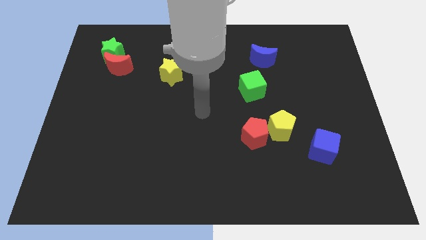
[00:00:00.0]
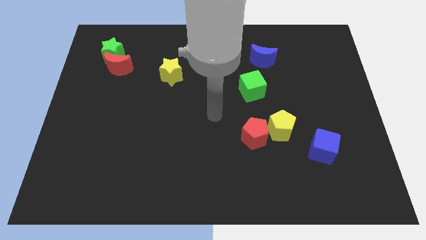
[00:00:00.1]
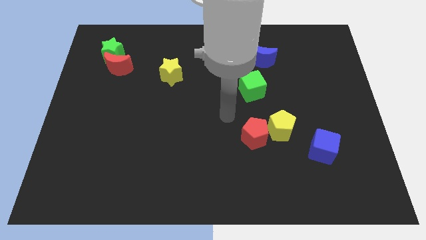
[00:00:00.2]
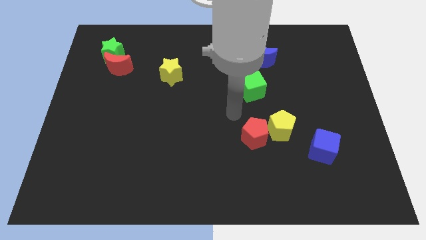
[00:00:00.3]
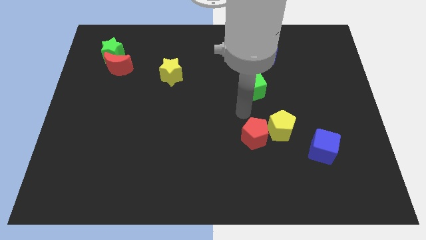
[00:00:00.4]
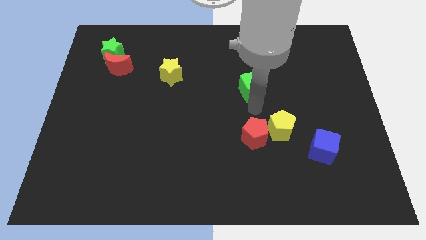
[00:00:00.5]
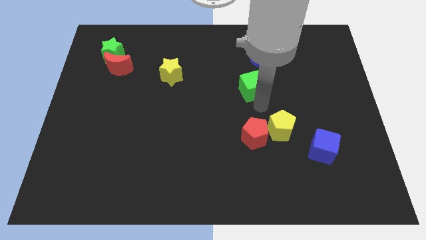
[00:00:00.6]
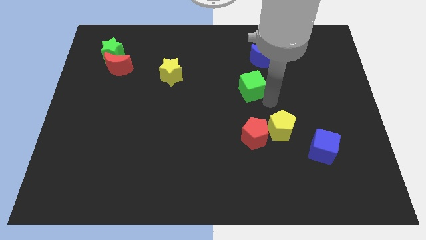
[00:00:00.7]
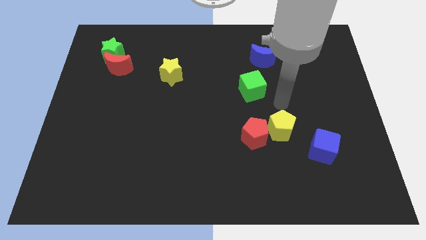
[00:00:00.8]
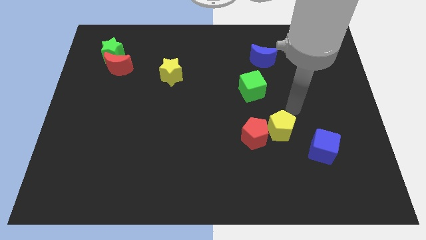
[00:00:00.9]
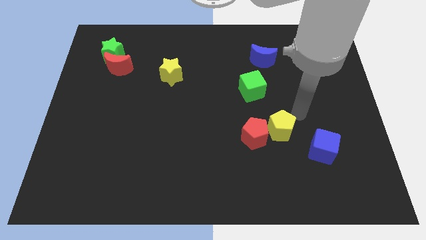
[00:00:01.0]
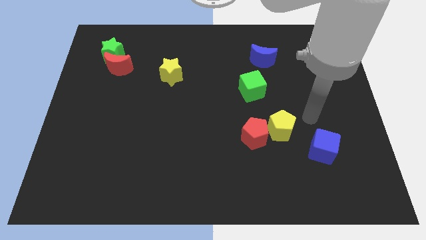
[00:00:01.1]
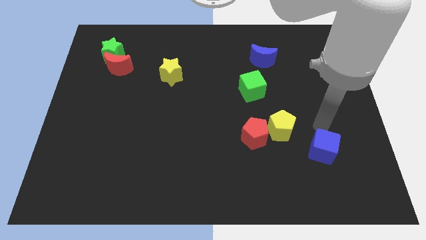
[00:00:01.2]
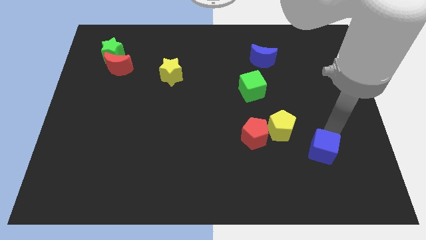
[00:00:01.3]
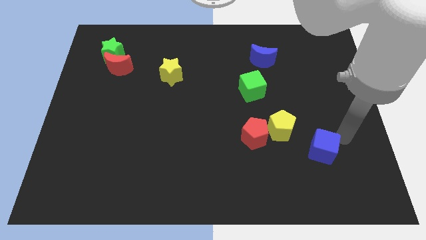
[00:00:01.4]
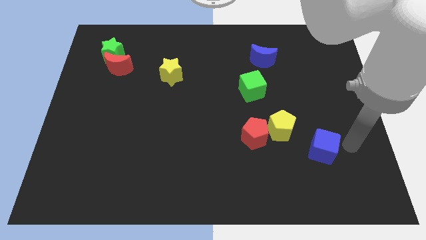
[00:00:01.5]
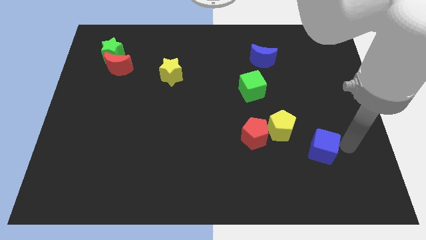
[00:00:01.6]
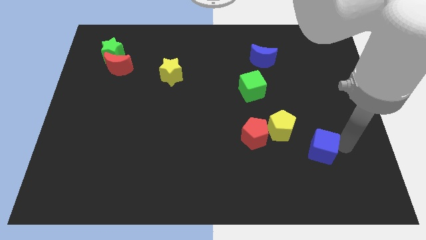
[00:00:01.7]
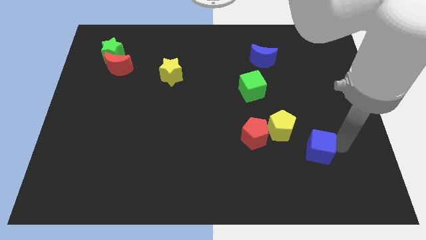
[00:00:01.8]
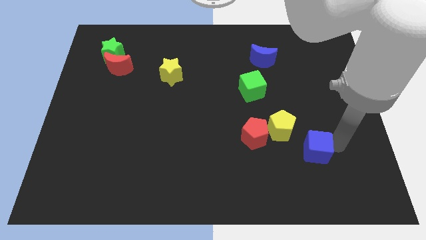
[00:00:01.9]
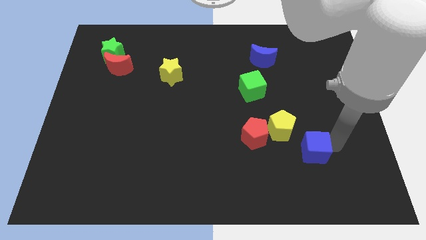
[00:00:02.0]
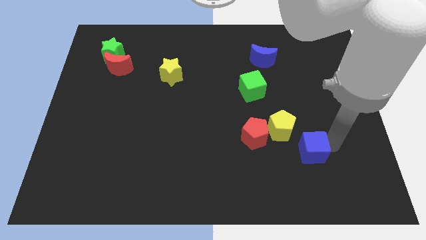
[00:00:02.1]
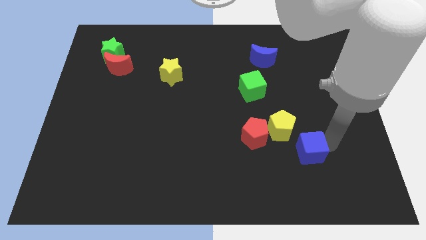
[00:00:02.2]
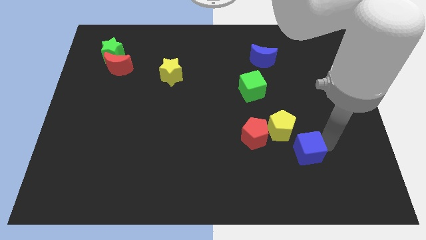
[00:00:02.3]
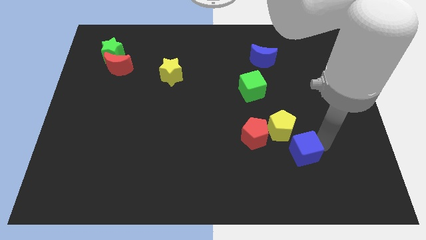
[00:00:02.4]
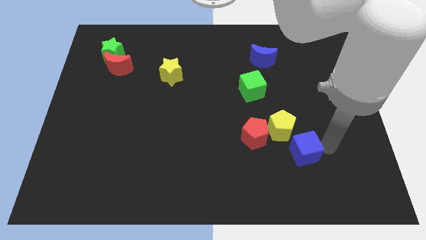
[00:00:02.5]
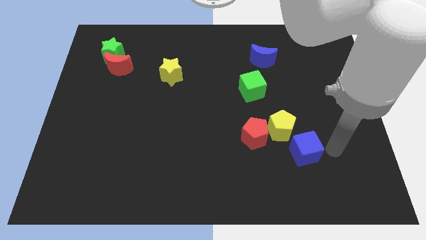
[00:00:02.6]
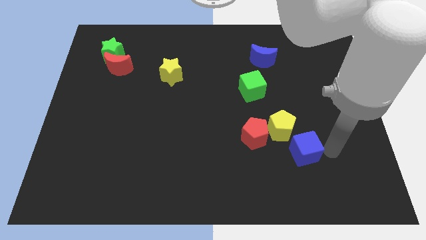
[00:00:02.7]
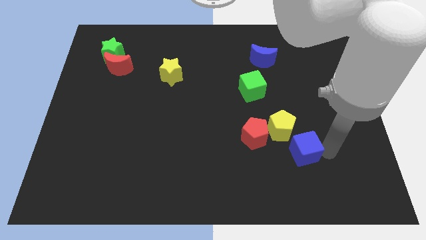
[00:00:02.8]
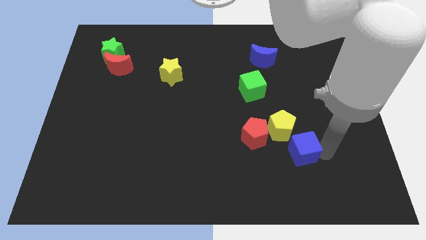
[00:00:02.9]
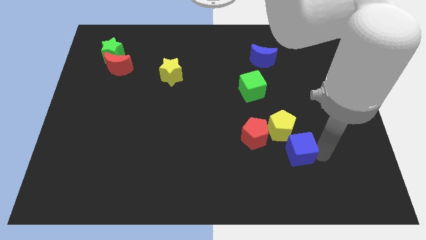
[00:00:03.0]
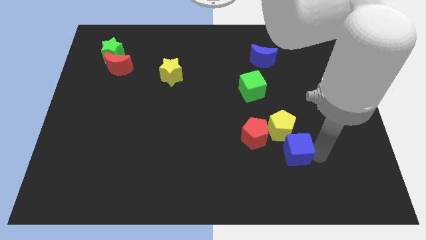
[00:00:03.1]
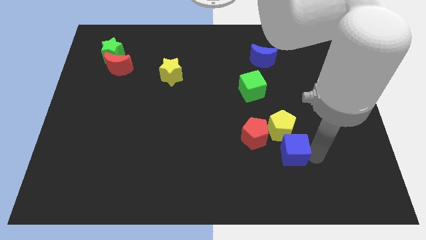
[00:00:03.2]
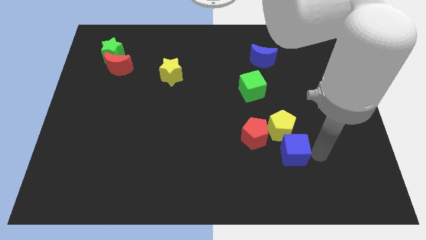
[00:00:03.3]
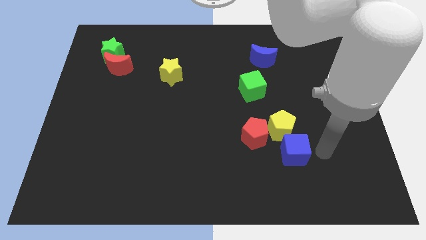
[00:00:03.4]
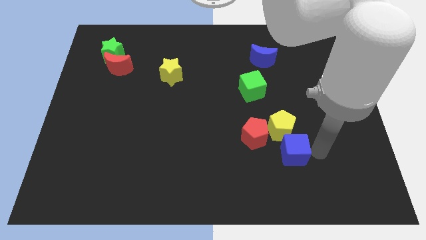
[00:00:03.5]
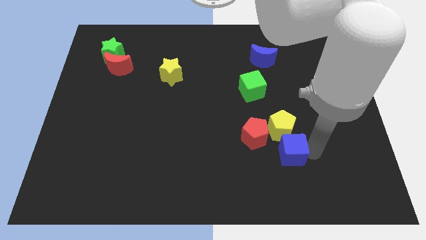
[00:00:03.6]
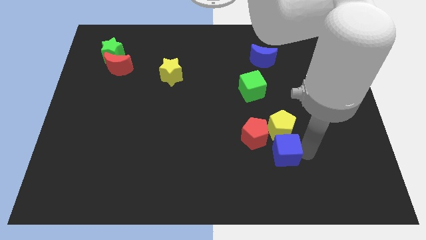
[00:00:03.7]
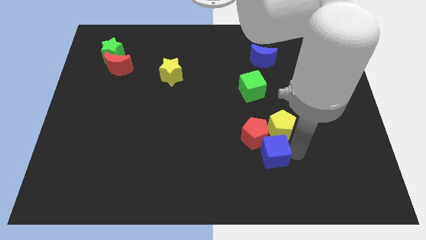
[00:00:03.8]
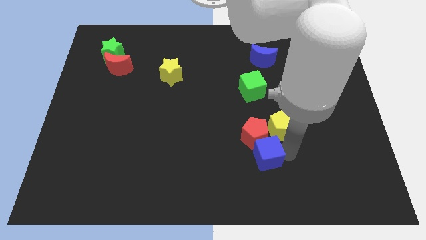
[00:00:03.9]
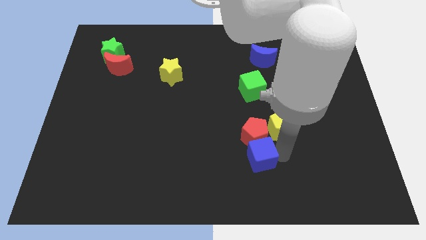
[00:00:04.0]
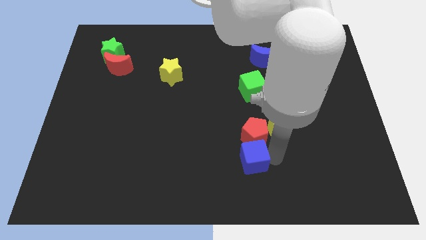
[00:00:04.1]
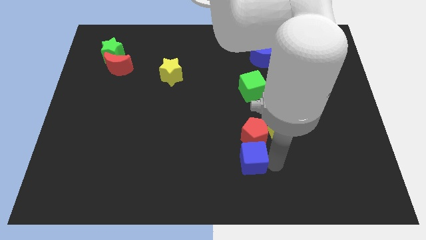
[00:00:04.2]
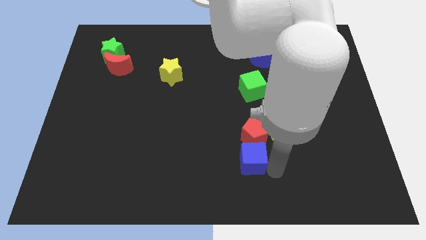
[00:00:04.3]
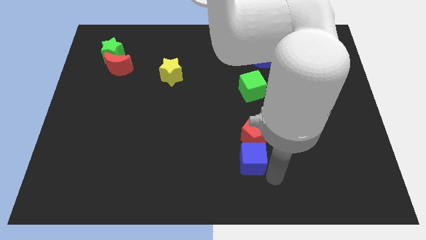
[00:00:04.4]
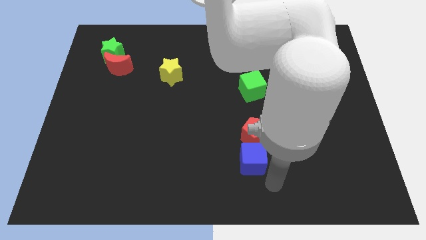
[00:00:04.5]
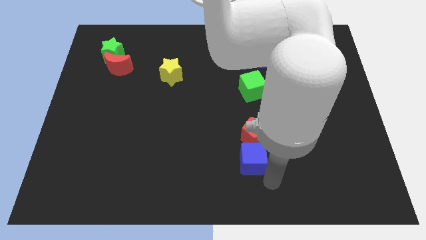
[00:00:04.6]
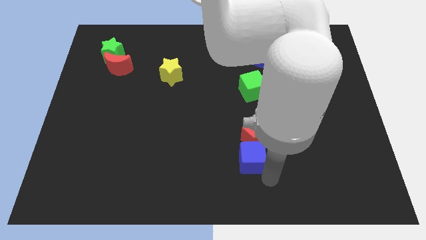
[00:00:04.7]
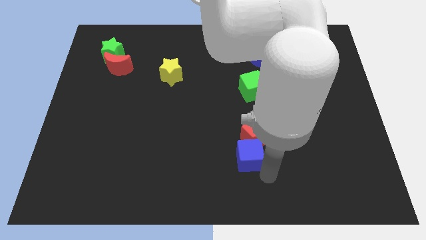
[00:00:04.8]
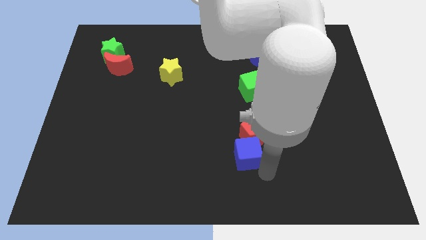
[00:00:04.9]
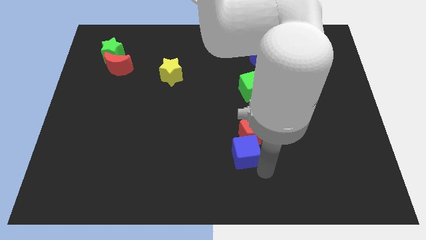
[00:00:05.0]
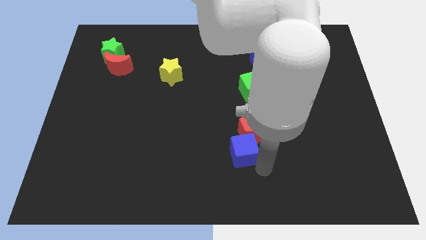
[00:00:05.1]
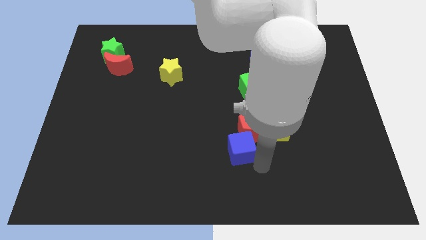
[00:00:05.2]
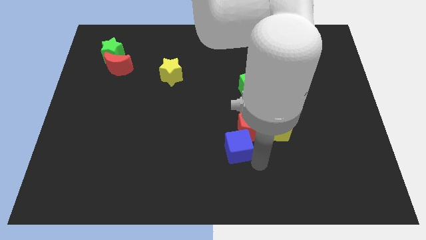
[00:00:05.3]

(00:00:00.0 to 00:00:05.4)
slide the blue cube to the left side of the yellow pentagon

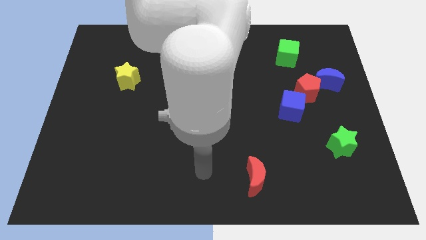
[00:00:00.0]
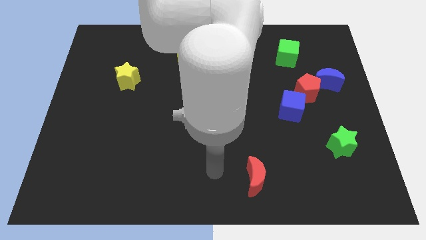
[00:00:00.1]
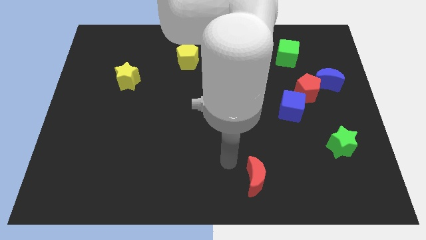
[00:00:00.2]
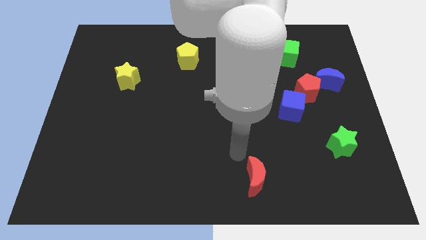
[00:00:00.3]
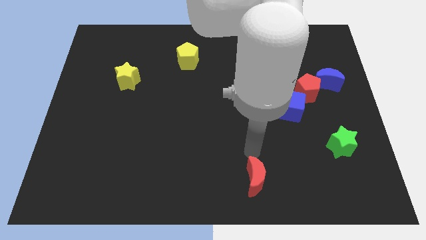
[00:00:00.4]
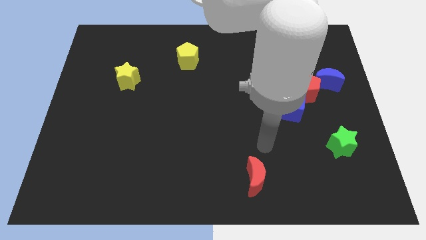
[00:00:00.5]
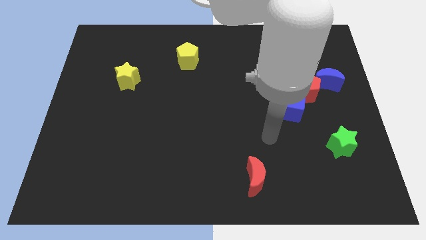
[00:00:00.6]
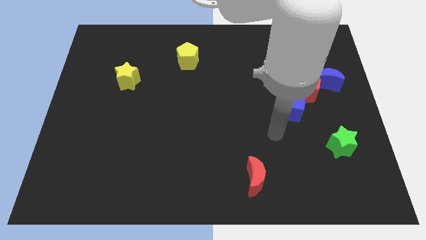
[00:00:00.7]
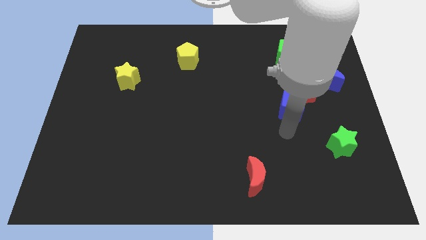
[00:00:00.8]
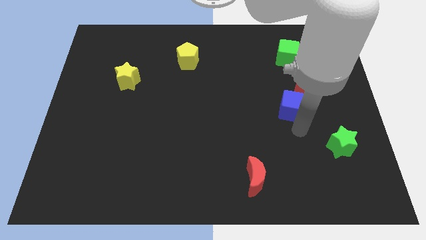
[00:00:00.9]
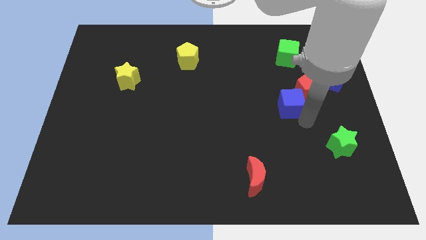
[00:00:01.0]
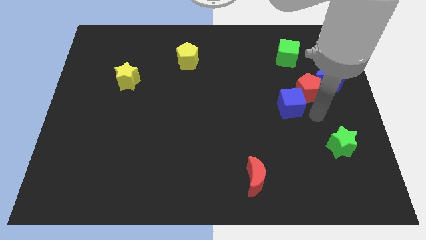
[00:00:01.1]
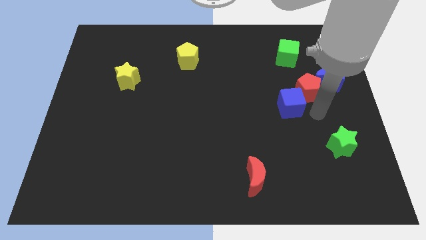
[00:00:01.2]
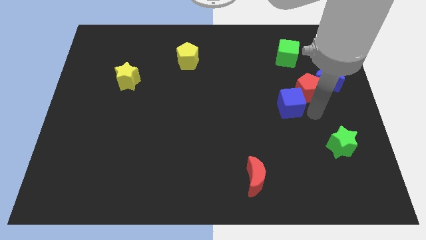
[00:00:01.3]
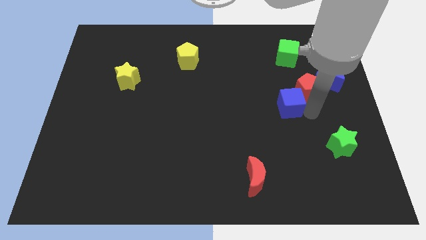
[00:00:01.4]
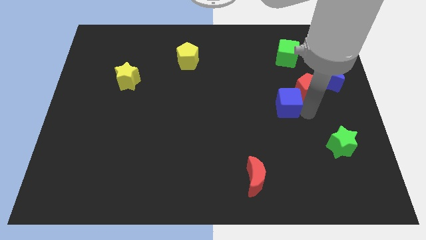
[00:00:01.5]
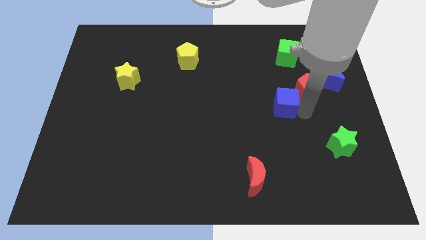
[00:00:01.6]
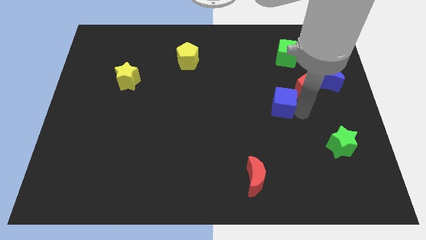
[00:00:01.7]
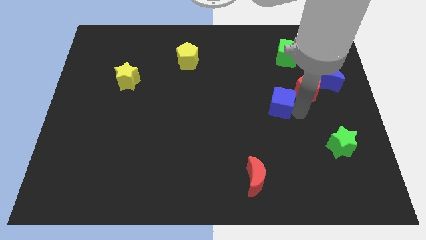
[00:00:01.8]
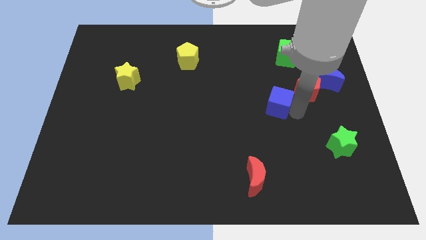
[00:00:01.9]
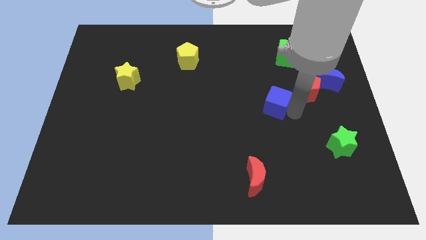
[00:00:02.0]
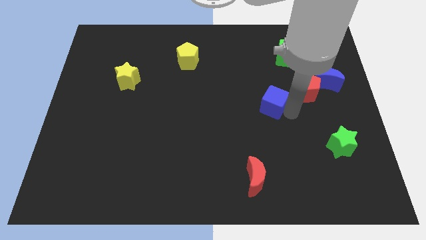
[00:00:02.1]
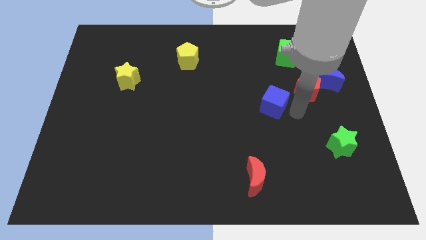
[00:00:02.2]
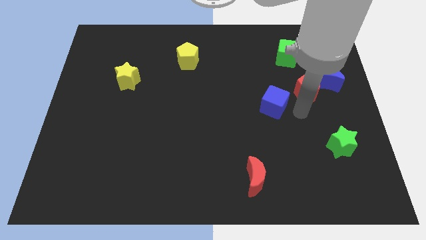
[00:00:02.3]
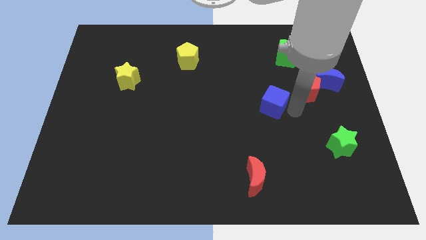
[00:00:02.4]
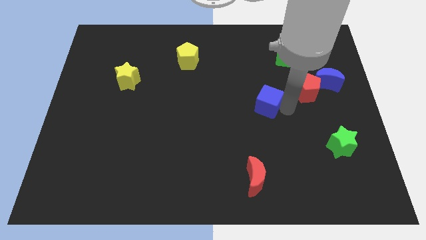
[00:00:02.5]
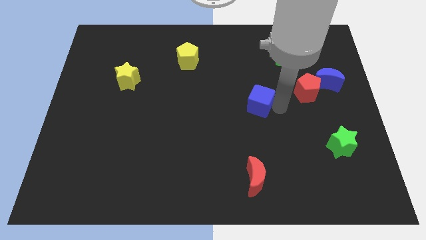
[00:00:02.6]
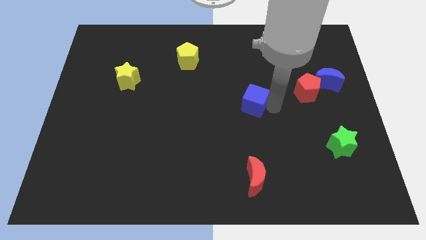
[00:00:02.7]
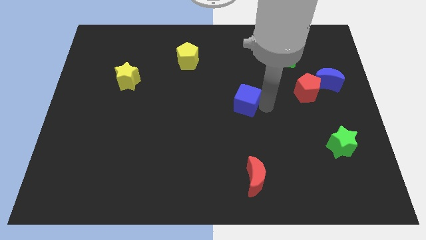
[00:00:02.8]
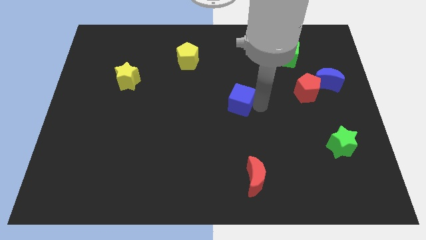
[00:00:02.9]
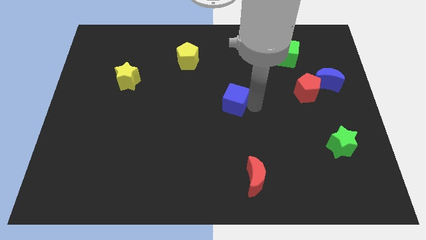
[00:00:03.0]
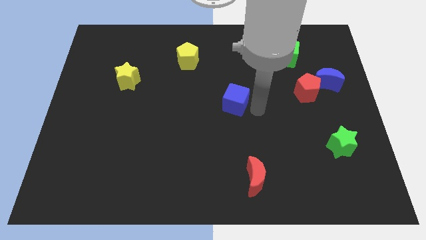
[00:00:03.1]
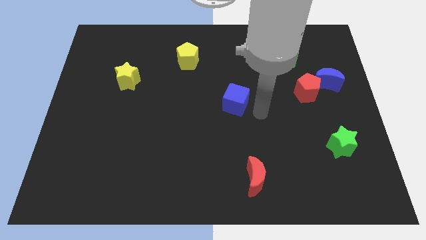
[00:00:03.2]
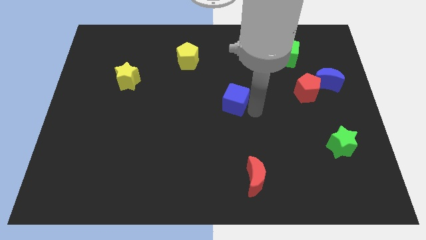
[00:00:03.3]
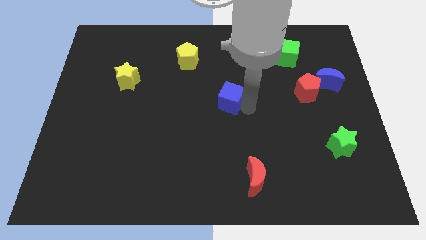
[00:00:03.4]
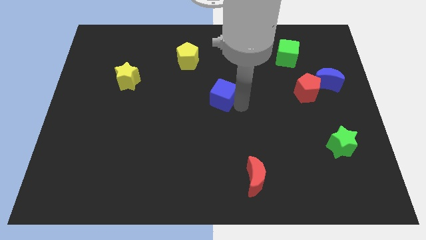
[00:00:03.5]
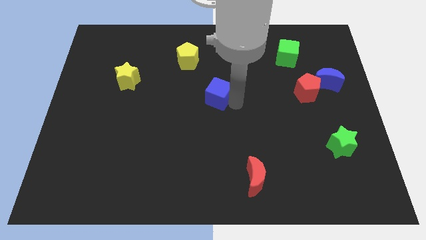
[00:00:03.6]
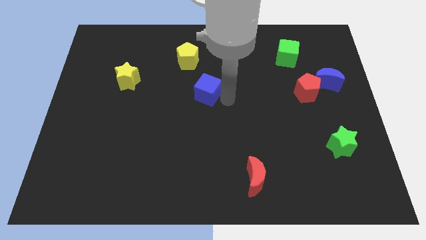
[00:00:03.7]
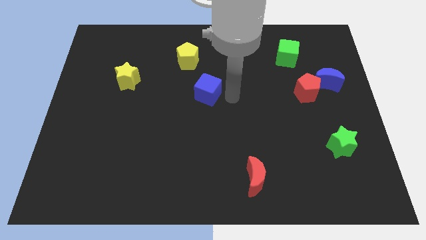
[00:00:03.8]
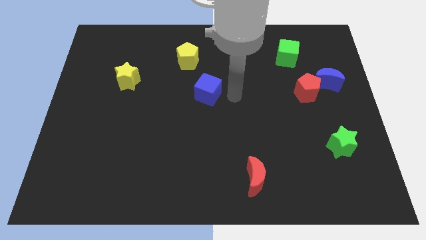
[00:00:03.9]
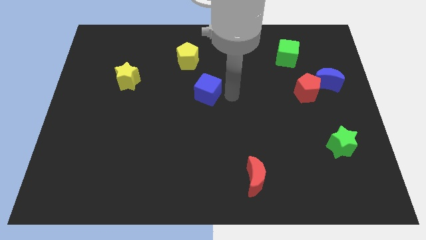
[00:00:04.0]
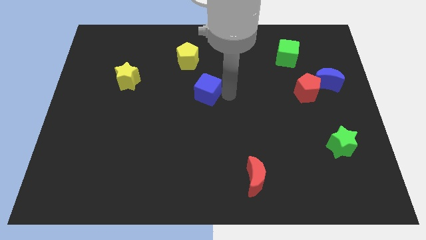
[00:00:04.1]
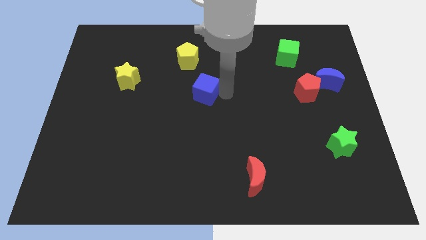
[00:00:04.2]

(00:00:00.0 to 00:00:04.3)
move the blue cube below the yellow pentagon
